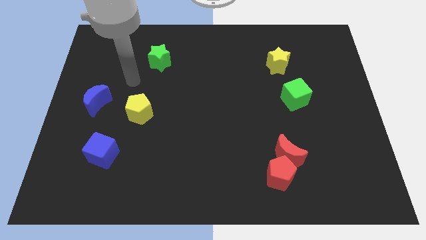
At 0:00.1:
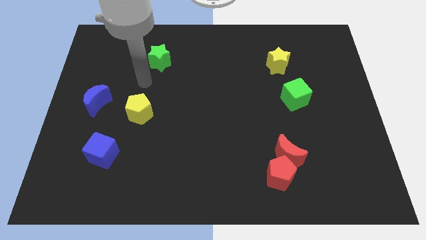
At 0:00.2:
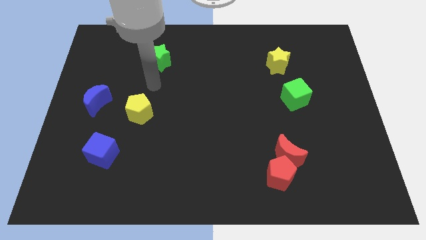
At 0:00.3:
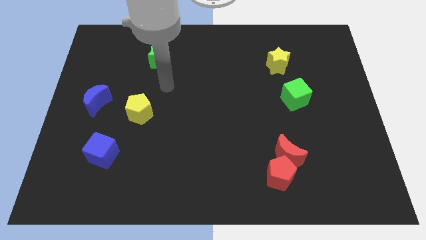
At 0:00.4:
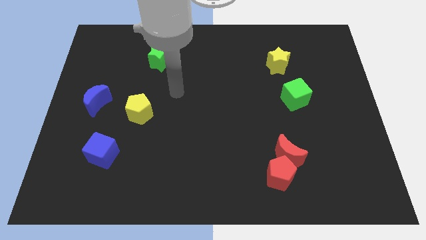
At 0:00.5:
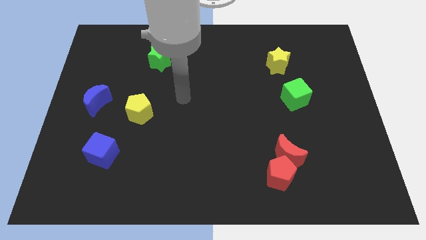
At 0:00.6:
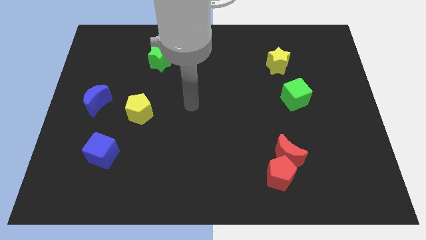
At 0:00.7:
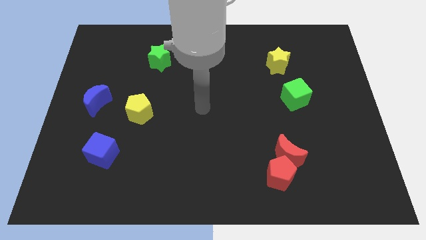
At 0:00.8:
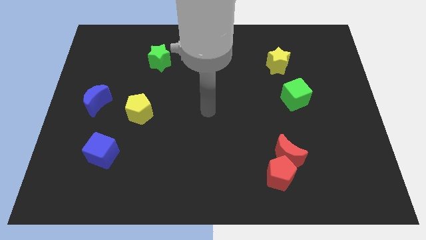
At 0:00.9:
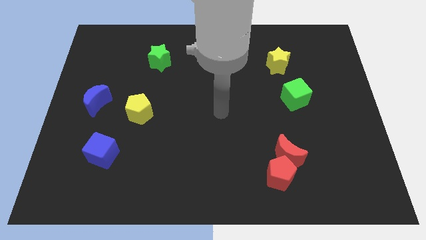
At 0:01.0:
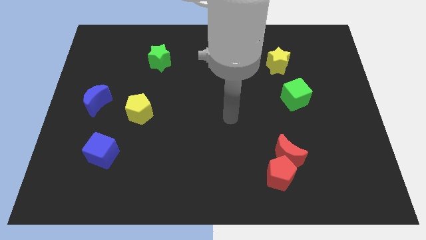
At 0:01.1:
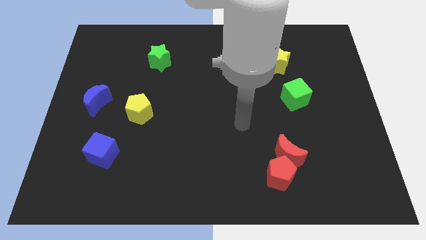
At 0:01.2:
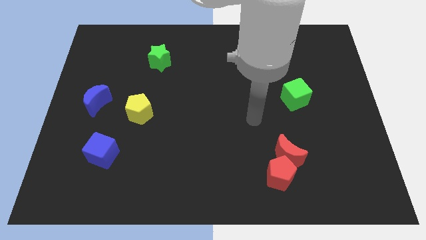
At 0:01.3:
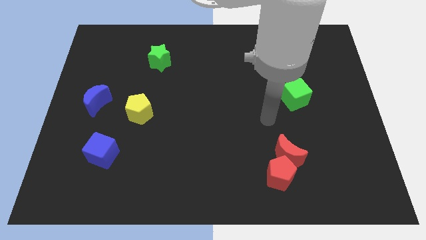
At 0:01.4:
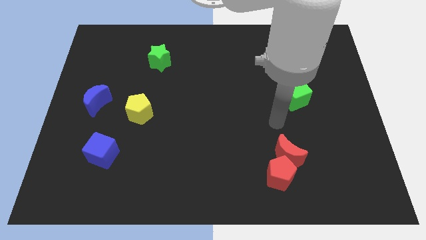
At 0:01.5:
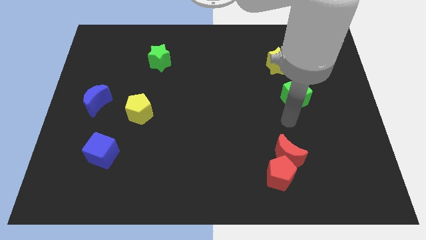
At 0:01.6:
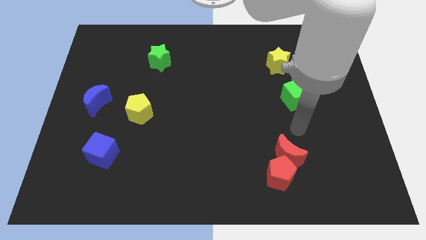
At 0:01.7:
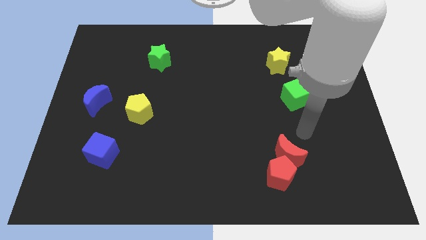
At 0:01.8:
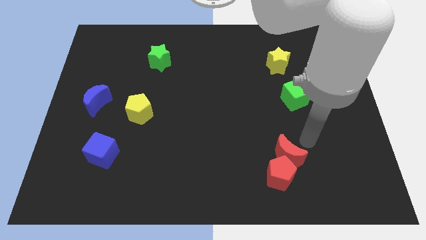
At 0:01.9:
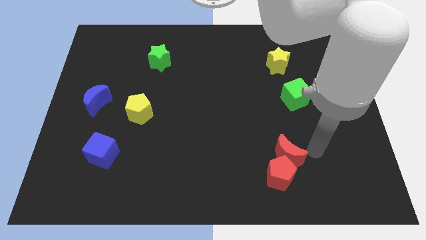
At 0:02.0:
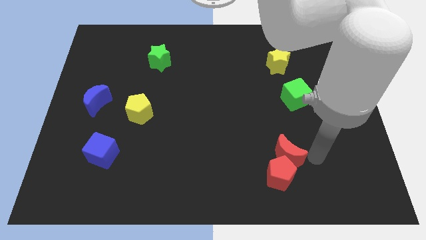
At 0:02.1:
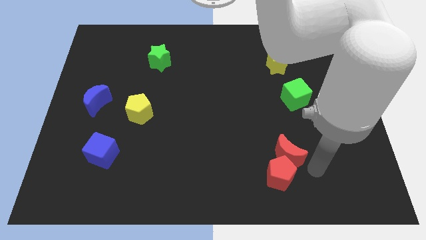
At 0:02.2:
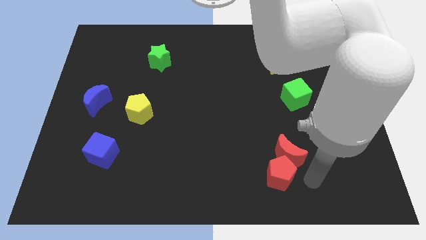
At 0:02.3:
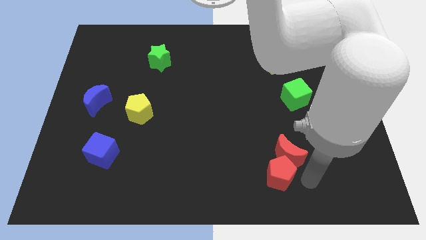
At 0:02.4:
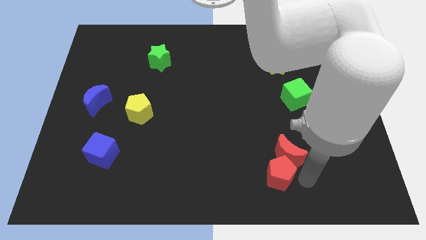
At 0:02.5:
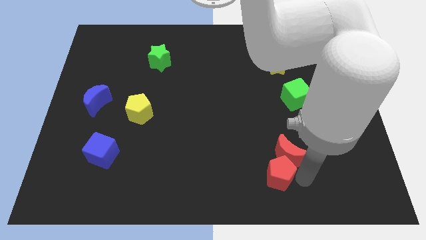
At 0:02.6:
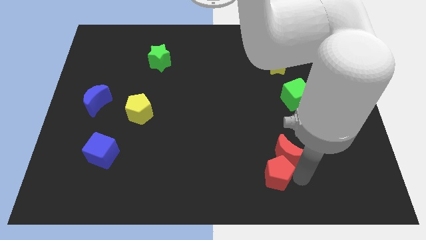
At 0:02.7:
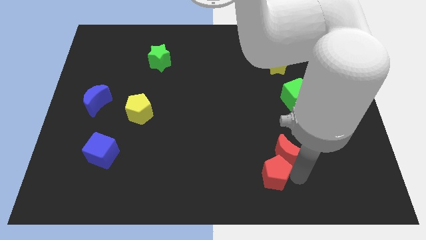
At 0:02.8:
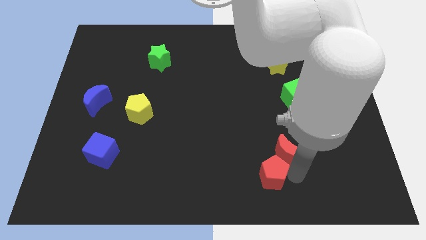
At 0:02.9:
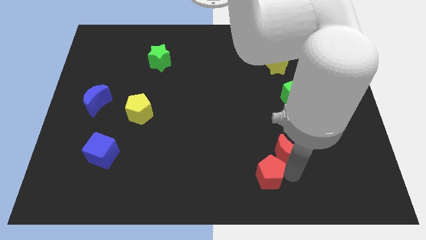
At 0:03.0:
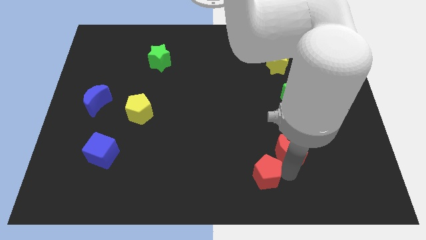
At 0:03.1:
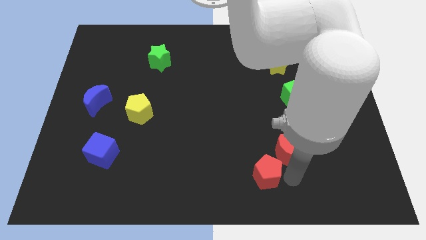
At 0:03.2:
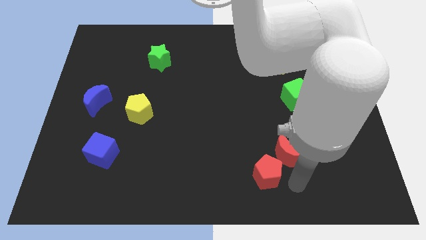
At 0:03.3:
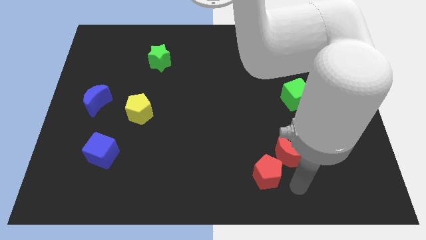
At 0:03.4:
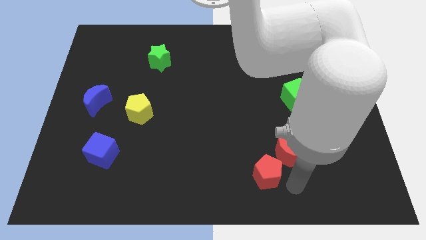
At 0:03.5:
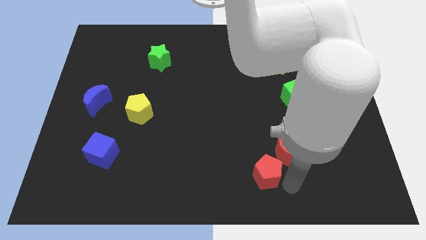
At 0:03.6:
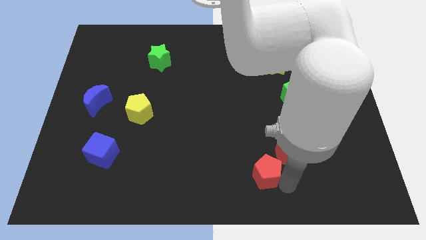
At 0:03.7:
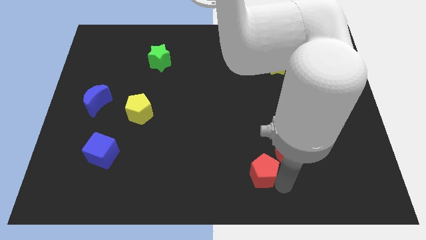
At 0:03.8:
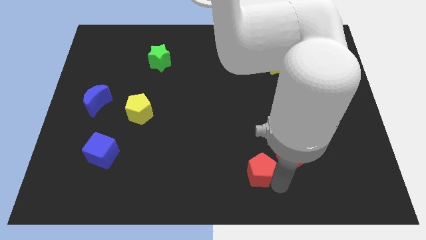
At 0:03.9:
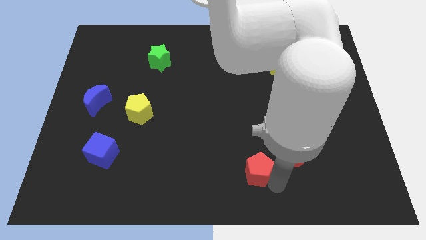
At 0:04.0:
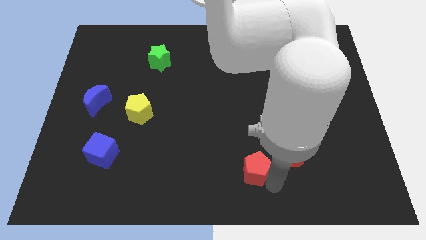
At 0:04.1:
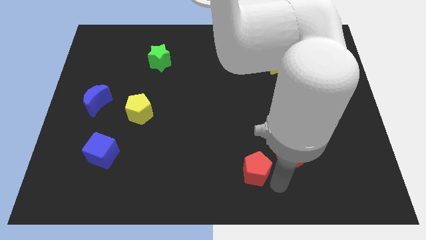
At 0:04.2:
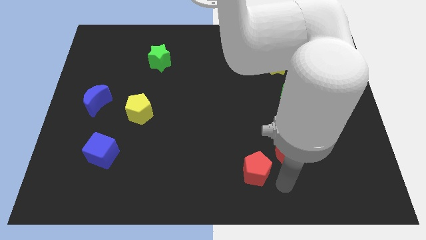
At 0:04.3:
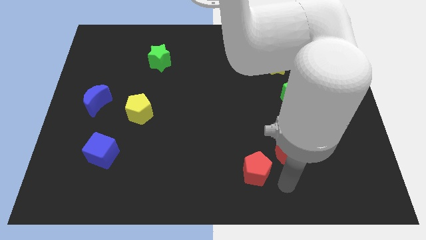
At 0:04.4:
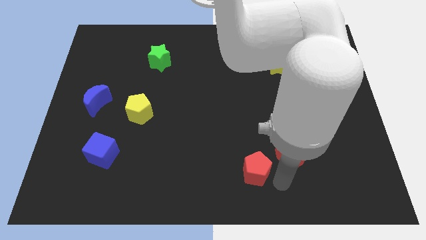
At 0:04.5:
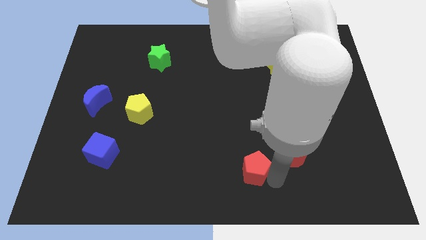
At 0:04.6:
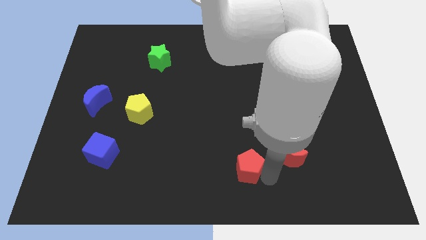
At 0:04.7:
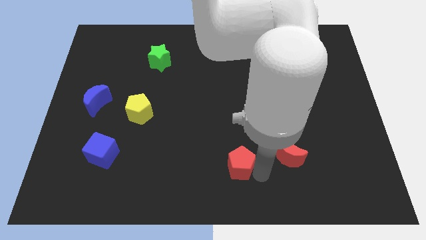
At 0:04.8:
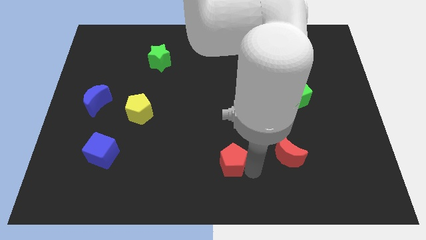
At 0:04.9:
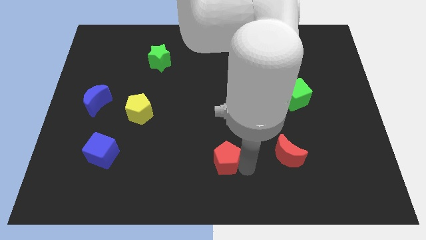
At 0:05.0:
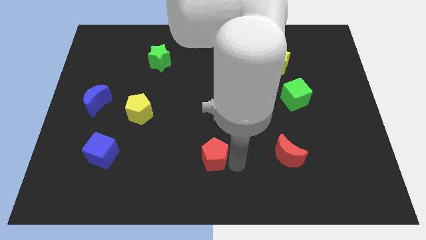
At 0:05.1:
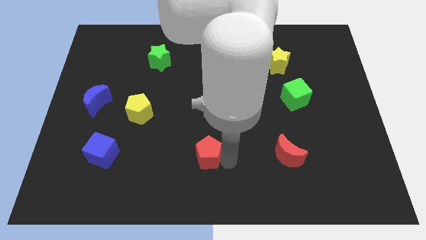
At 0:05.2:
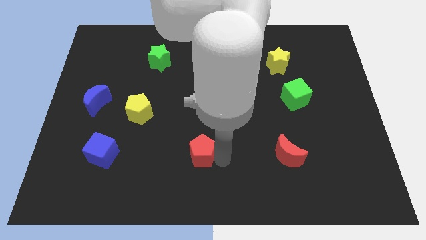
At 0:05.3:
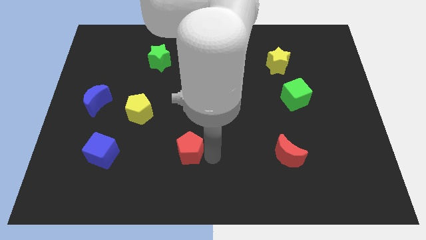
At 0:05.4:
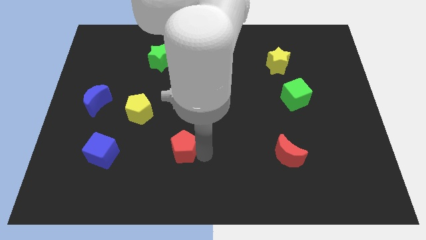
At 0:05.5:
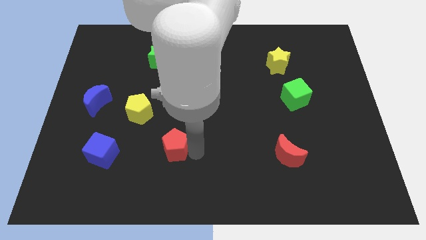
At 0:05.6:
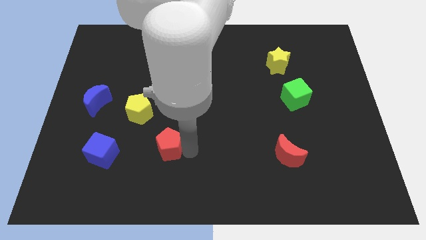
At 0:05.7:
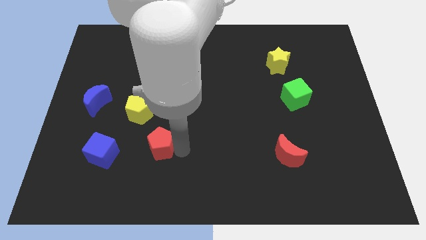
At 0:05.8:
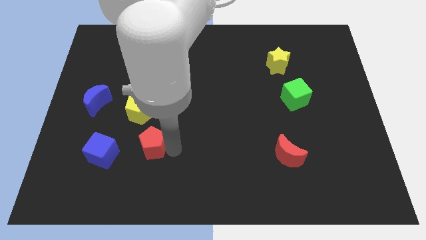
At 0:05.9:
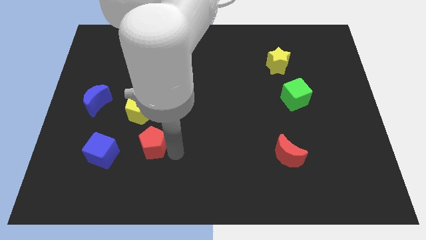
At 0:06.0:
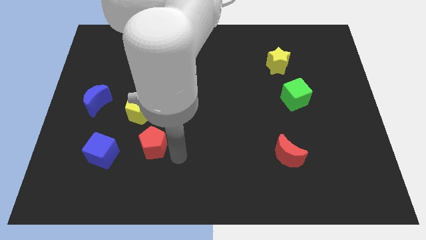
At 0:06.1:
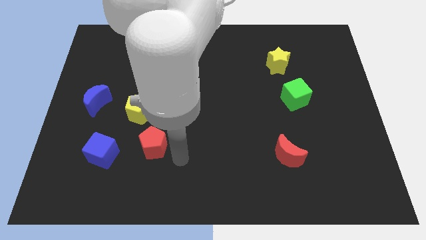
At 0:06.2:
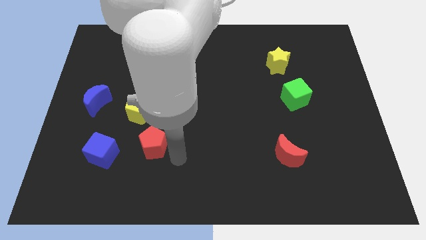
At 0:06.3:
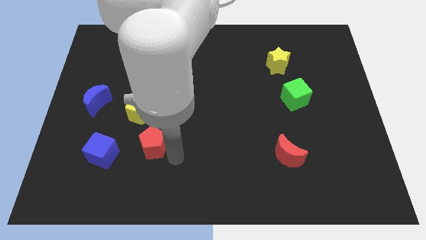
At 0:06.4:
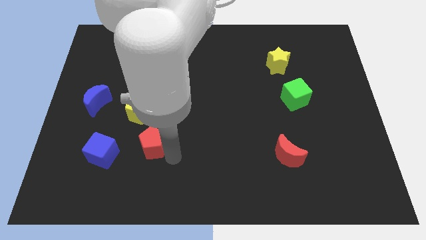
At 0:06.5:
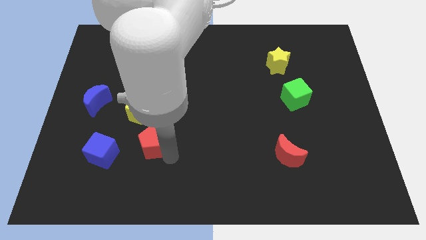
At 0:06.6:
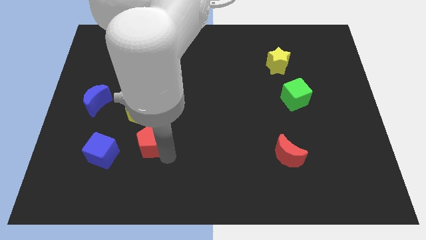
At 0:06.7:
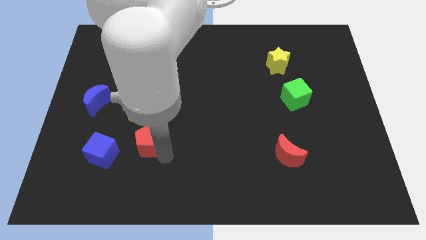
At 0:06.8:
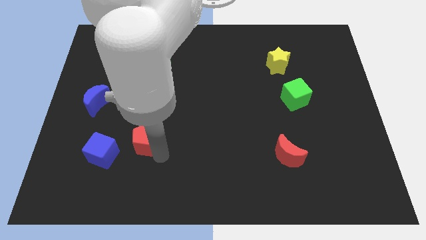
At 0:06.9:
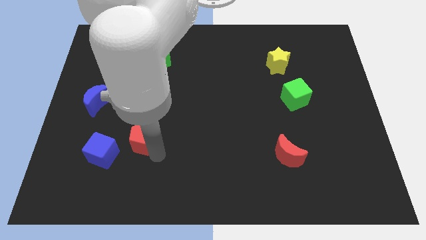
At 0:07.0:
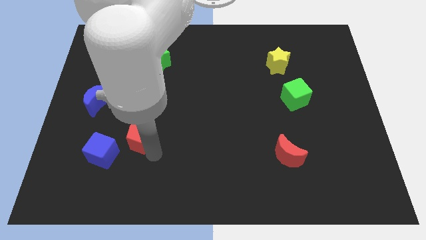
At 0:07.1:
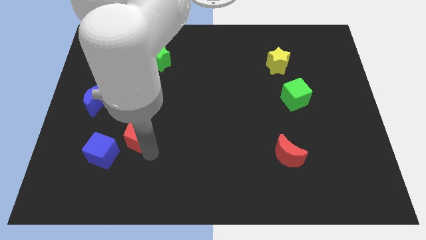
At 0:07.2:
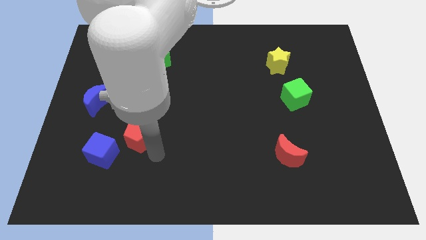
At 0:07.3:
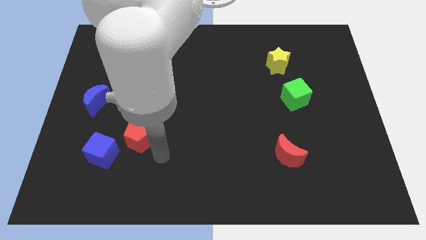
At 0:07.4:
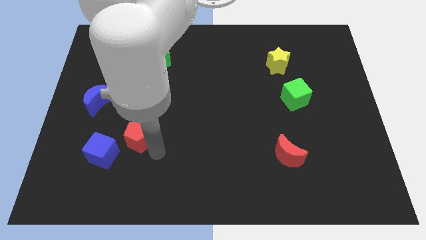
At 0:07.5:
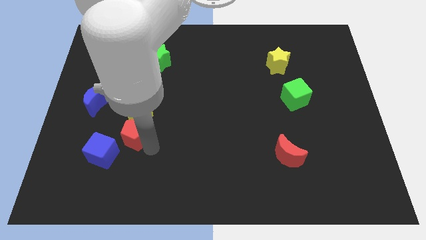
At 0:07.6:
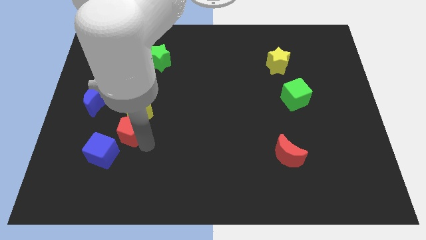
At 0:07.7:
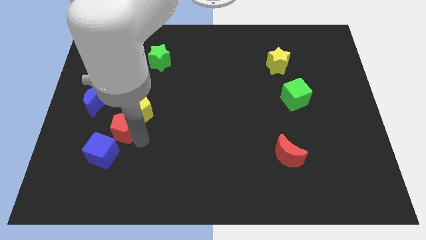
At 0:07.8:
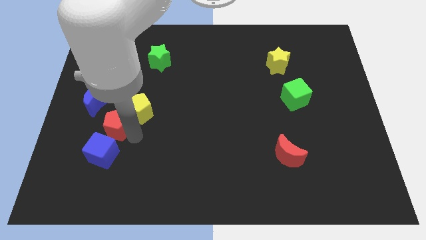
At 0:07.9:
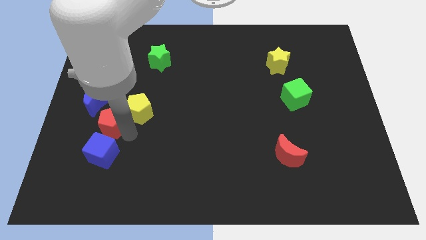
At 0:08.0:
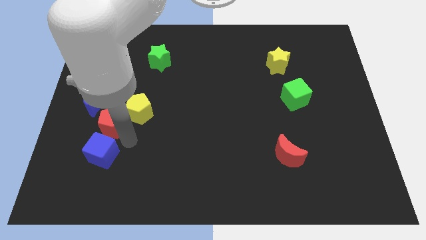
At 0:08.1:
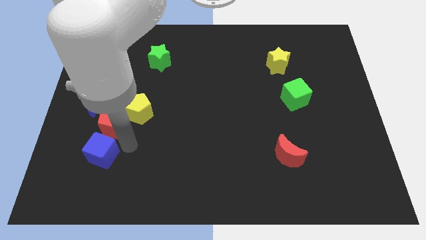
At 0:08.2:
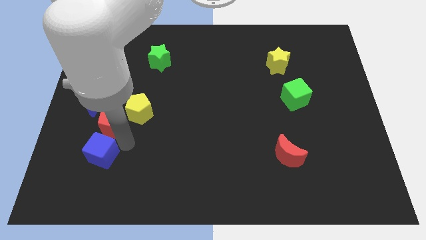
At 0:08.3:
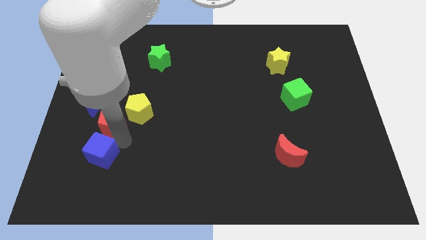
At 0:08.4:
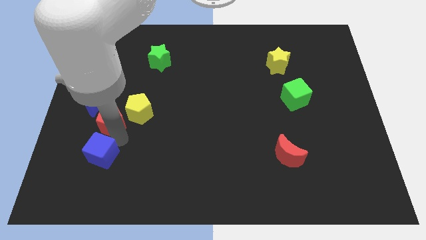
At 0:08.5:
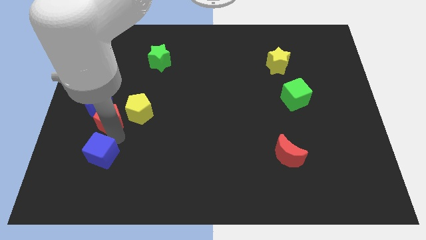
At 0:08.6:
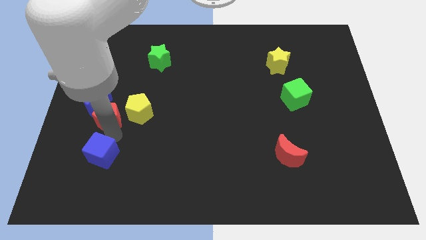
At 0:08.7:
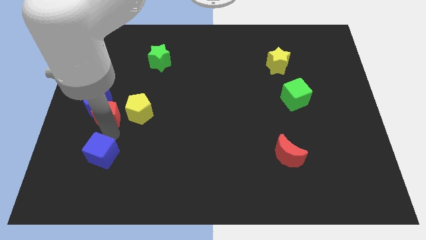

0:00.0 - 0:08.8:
put the red pentagon close to the blue moon
